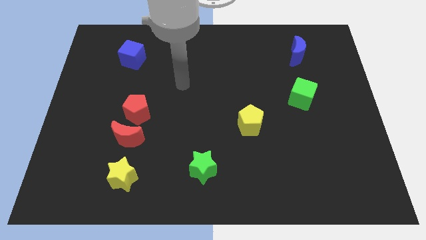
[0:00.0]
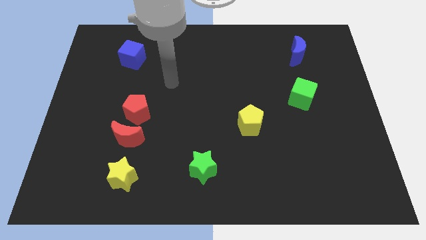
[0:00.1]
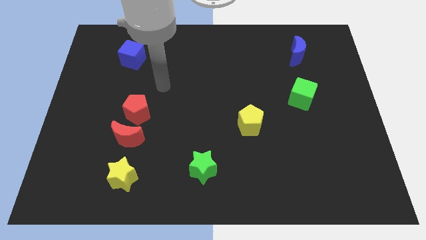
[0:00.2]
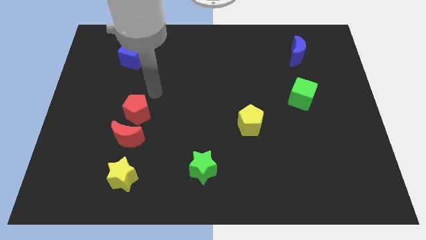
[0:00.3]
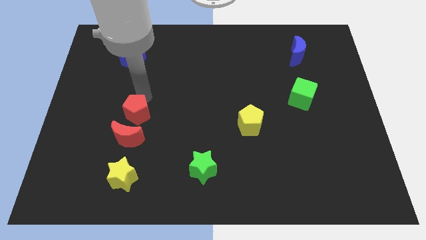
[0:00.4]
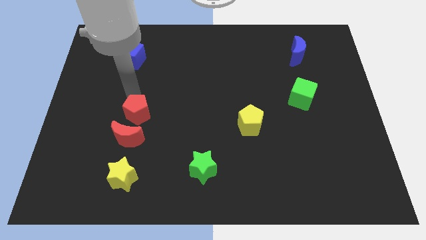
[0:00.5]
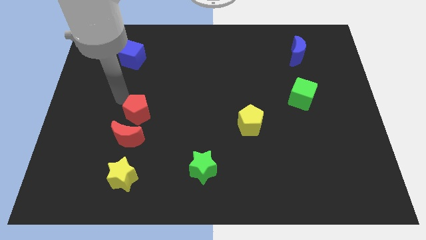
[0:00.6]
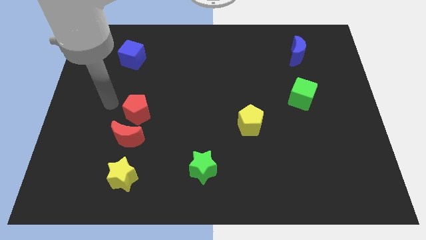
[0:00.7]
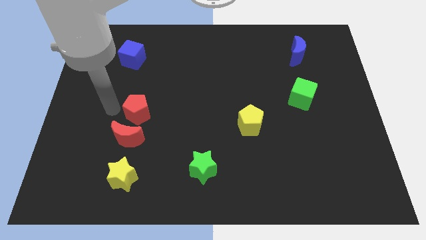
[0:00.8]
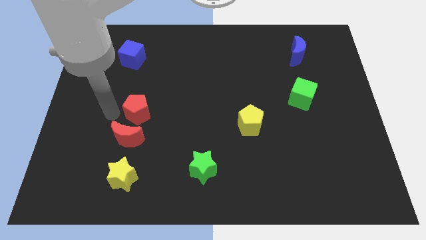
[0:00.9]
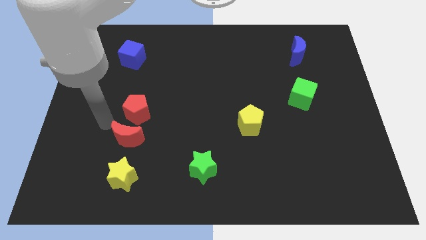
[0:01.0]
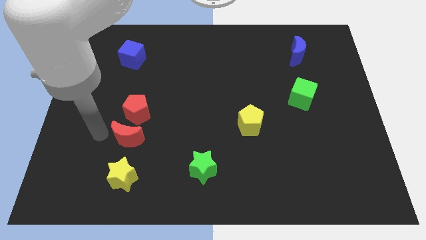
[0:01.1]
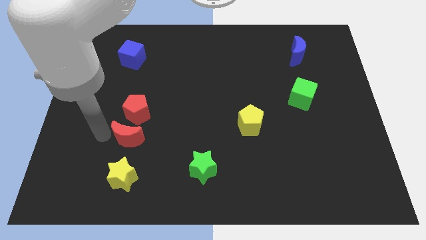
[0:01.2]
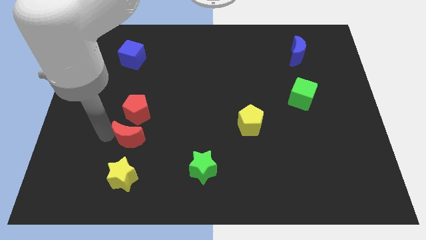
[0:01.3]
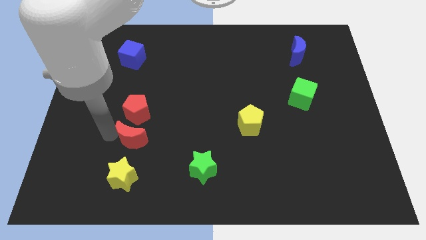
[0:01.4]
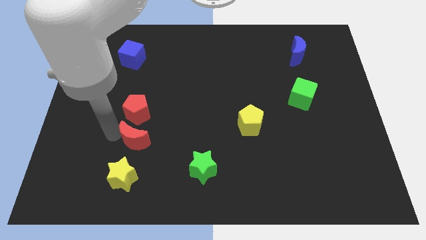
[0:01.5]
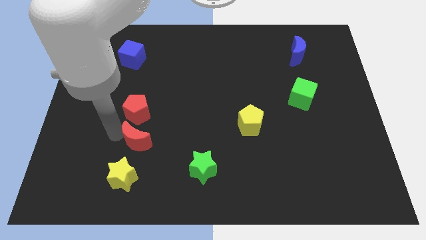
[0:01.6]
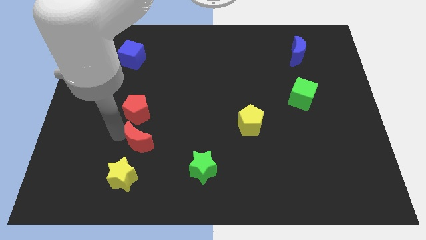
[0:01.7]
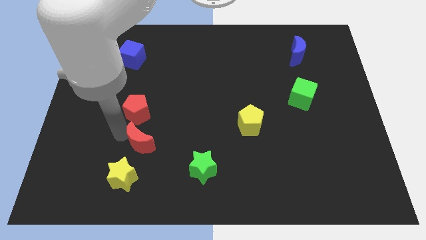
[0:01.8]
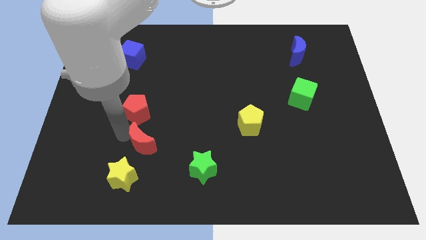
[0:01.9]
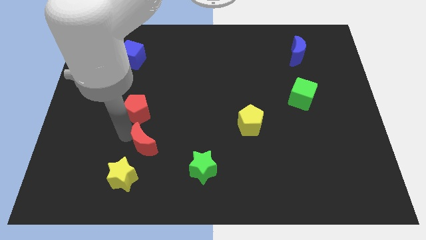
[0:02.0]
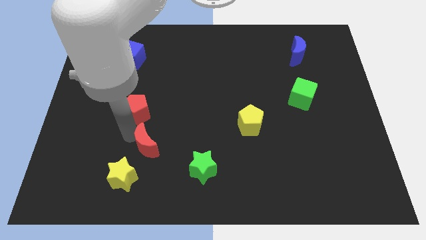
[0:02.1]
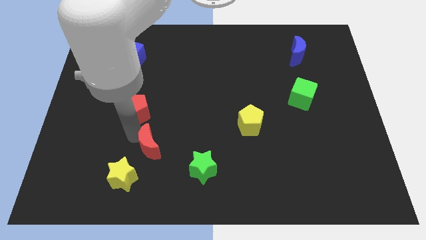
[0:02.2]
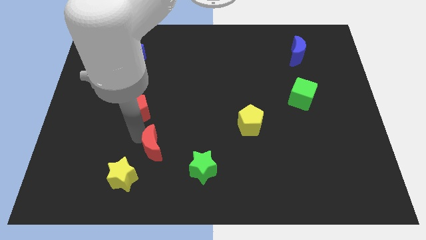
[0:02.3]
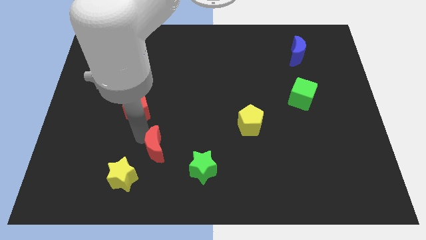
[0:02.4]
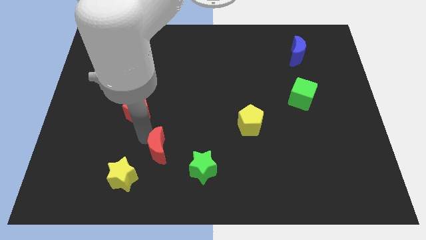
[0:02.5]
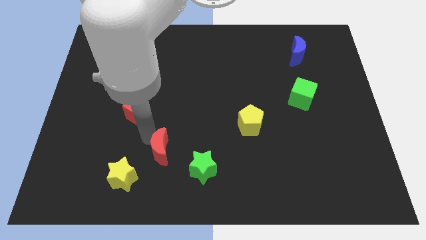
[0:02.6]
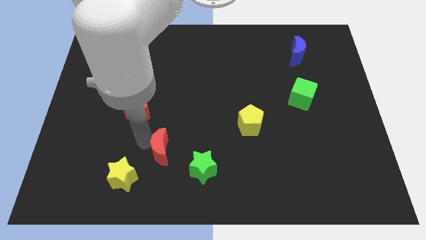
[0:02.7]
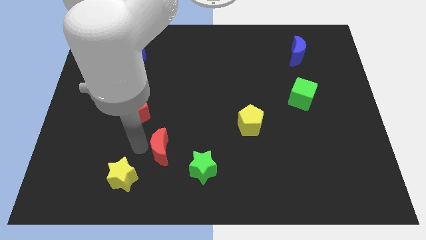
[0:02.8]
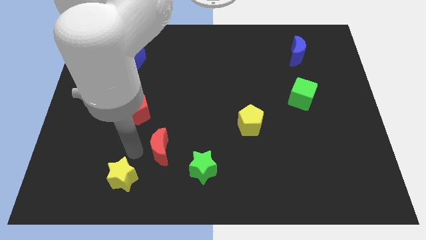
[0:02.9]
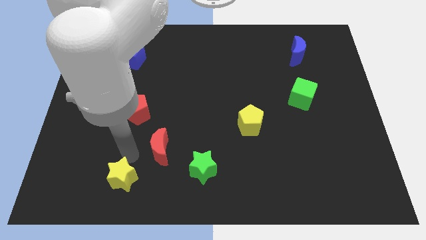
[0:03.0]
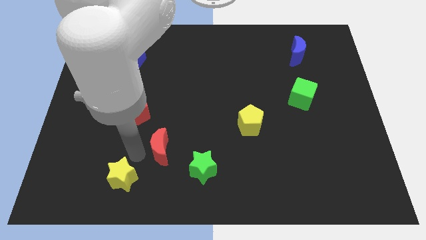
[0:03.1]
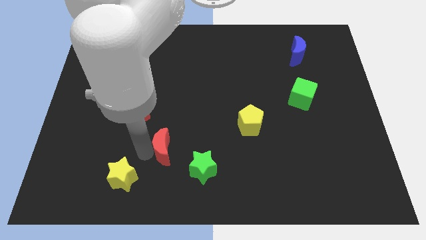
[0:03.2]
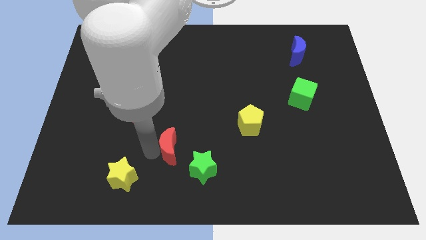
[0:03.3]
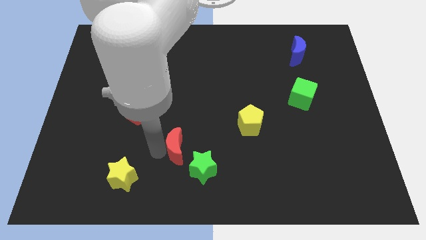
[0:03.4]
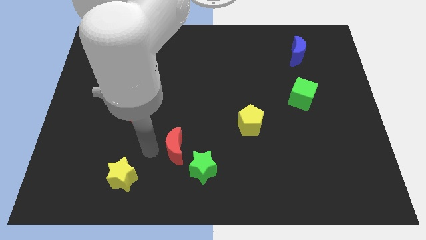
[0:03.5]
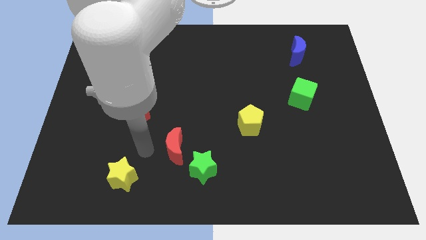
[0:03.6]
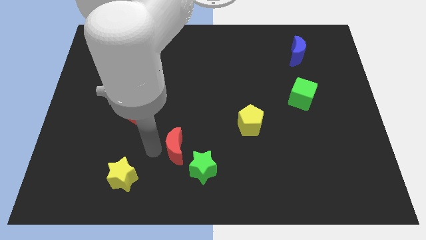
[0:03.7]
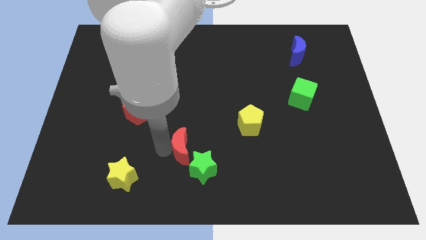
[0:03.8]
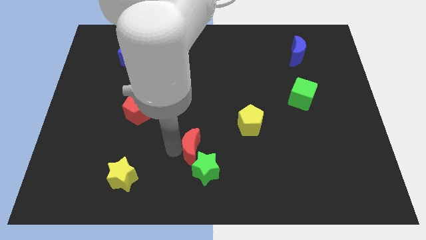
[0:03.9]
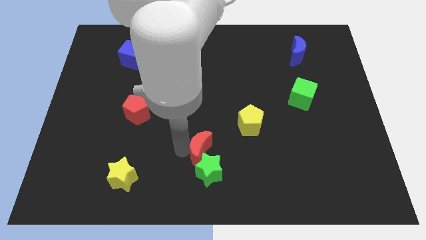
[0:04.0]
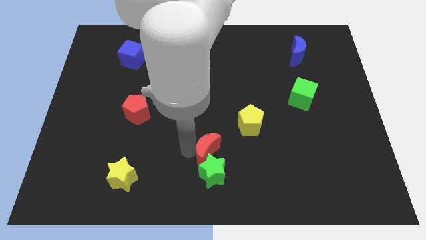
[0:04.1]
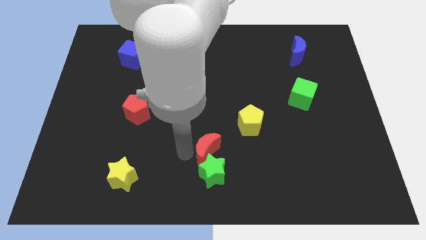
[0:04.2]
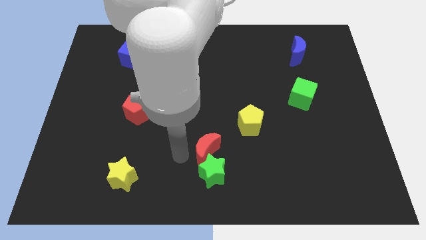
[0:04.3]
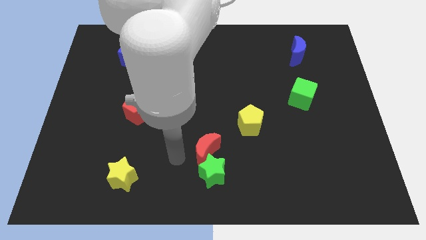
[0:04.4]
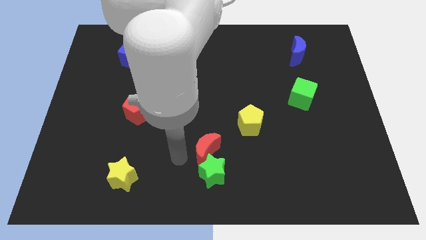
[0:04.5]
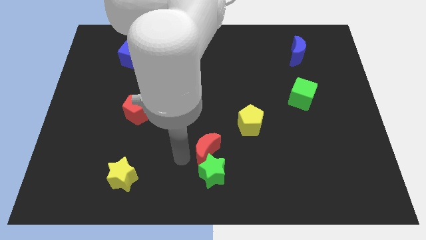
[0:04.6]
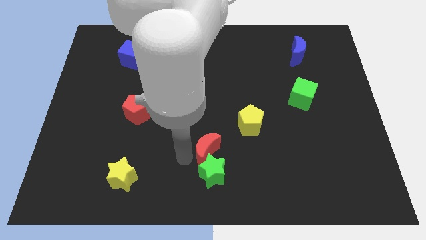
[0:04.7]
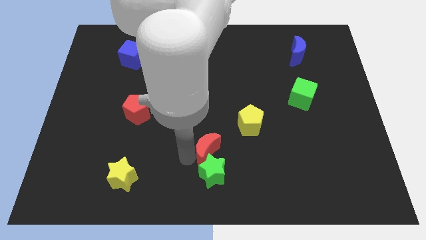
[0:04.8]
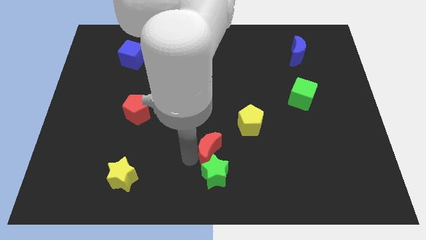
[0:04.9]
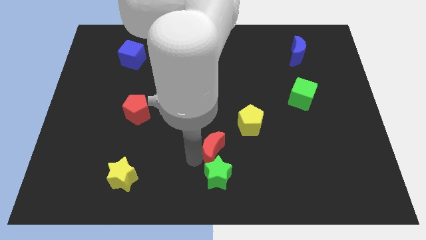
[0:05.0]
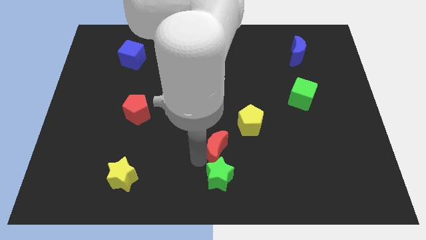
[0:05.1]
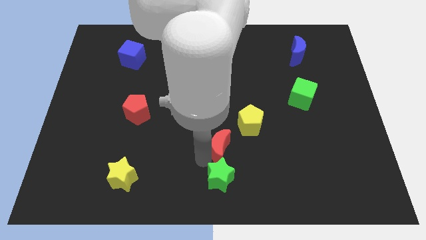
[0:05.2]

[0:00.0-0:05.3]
slide the red moon to the right

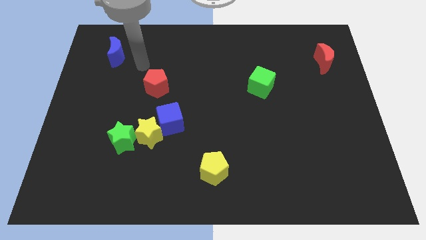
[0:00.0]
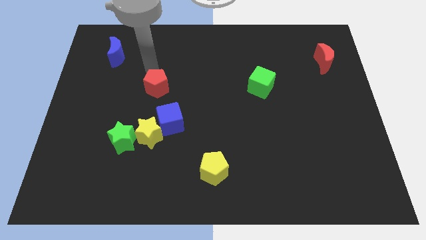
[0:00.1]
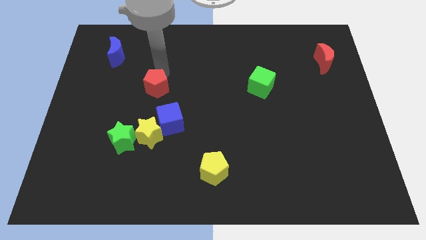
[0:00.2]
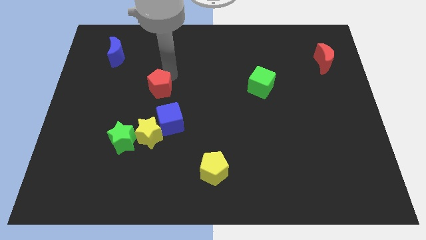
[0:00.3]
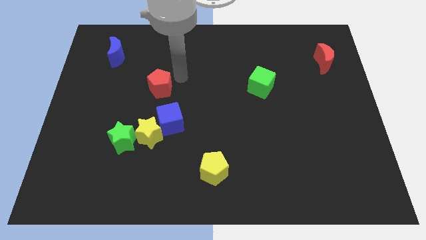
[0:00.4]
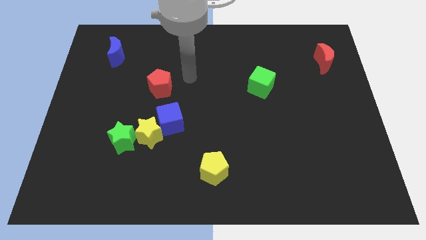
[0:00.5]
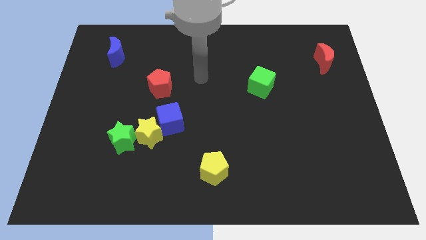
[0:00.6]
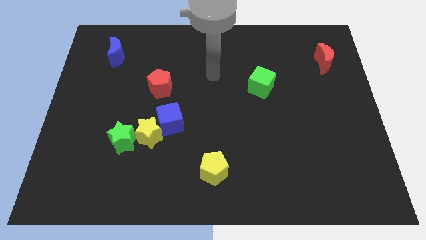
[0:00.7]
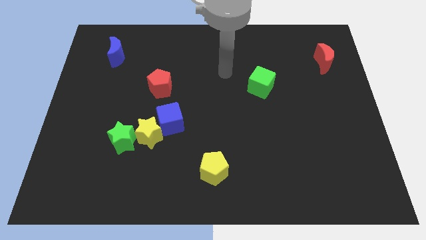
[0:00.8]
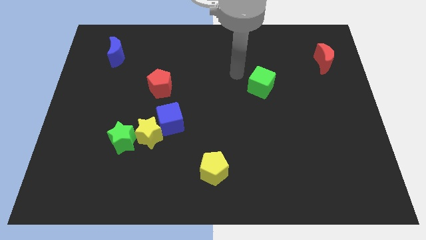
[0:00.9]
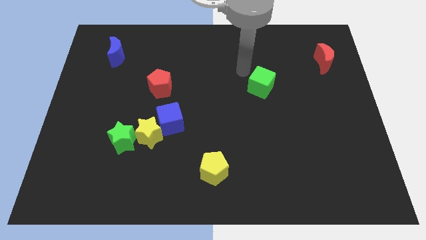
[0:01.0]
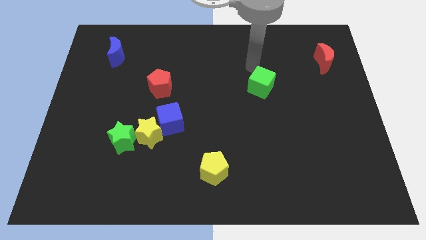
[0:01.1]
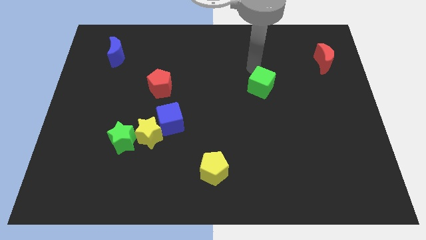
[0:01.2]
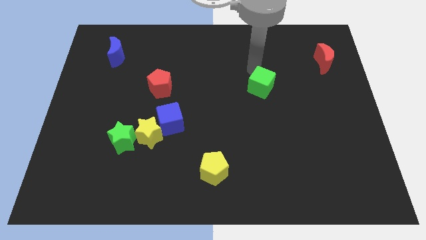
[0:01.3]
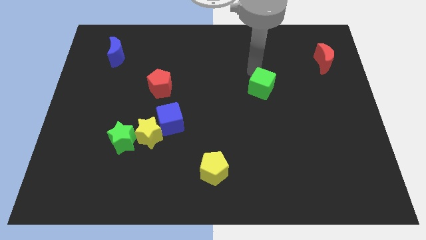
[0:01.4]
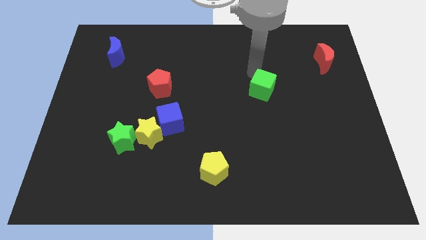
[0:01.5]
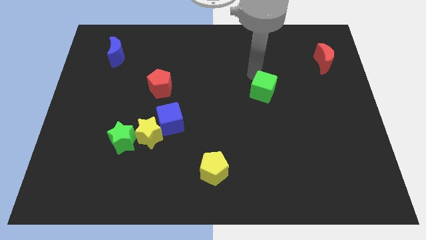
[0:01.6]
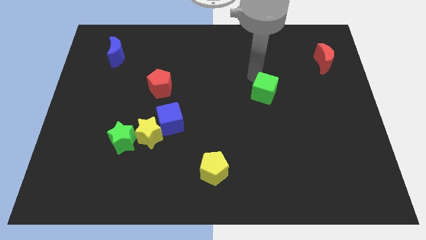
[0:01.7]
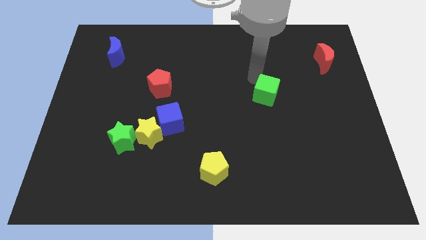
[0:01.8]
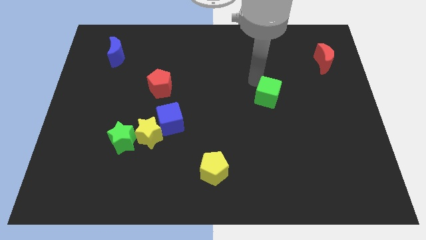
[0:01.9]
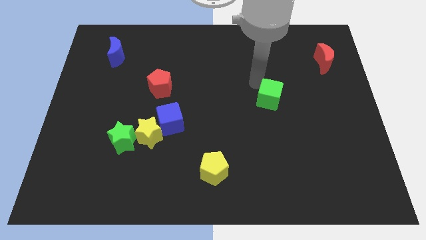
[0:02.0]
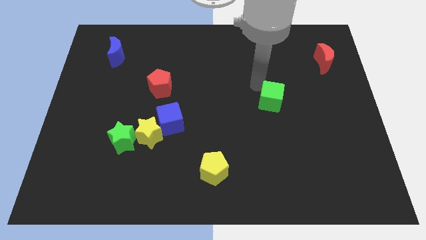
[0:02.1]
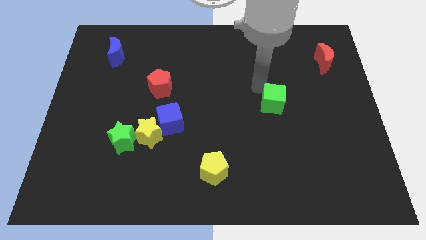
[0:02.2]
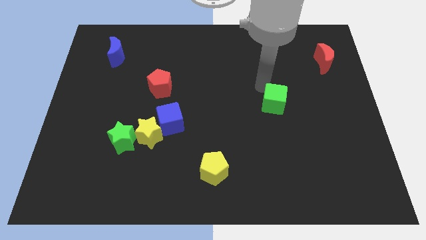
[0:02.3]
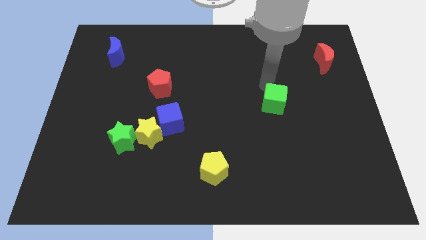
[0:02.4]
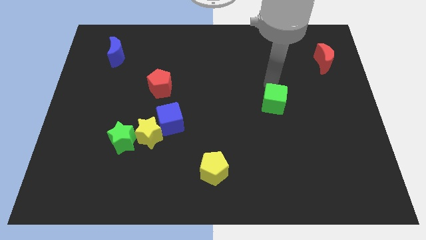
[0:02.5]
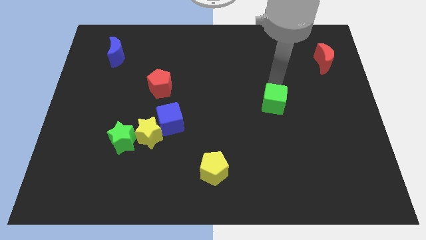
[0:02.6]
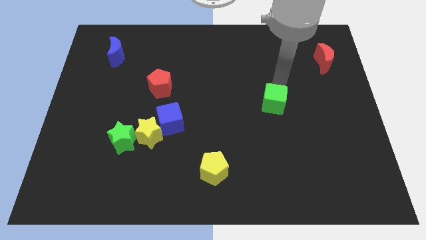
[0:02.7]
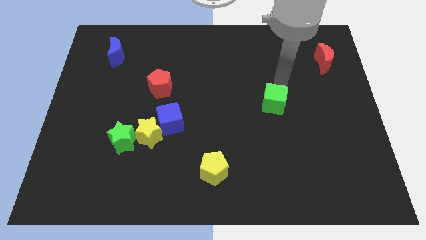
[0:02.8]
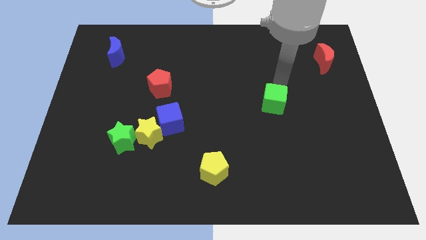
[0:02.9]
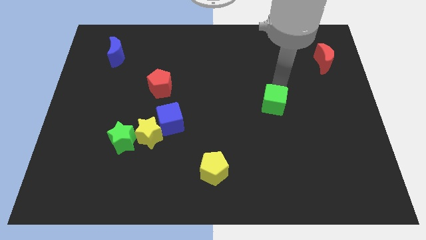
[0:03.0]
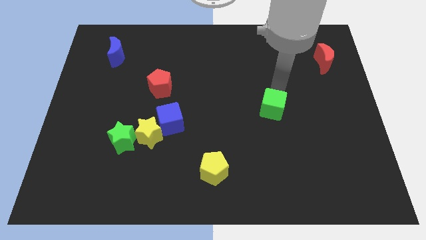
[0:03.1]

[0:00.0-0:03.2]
push the green cube downwards slightly
